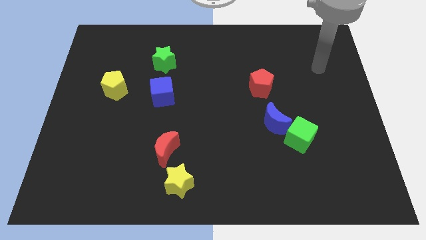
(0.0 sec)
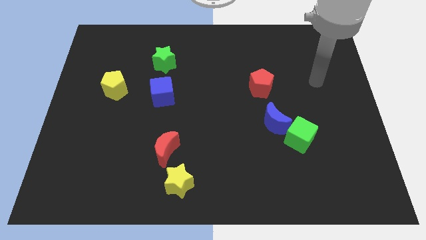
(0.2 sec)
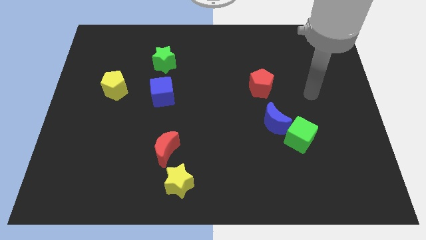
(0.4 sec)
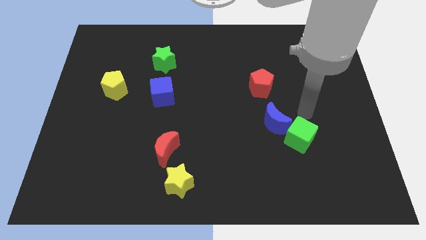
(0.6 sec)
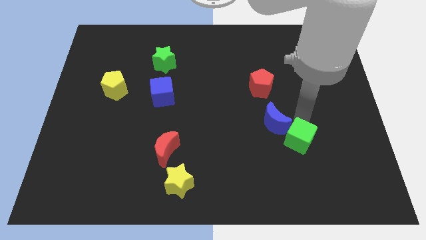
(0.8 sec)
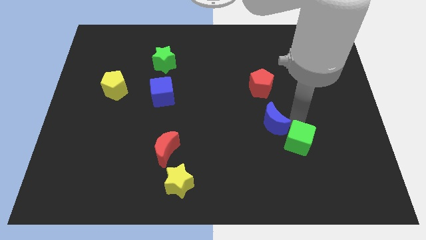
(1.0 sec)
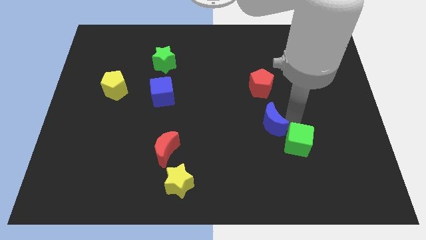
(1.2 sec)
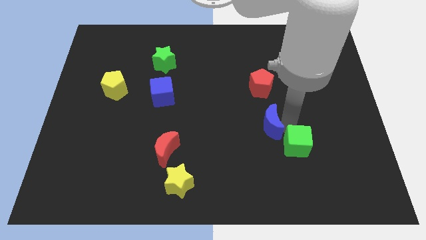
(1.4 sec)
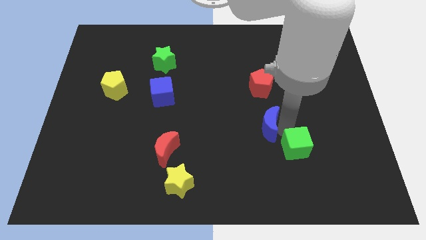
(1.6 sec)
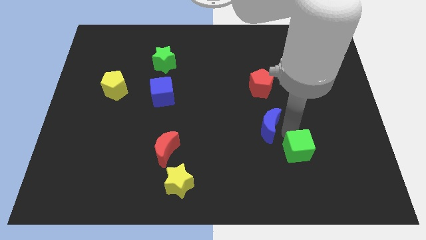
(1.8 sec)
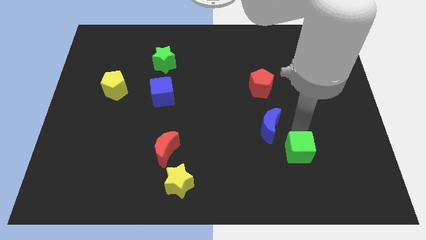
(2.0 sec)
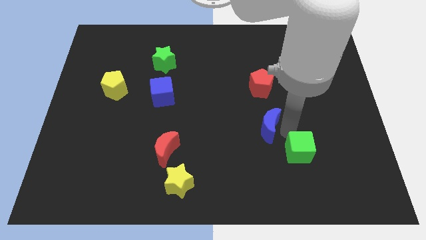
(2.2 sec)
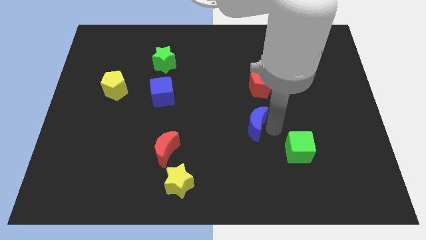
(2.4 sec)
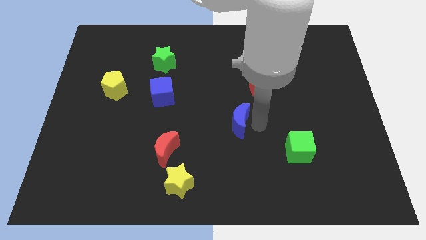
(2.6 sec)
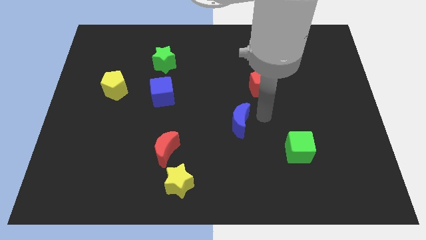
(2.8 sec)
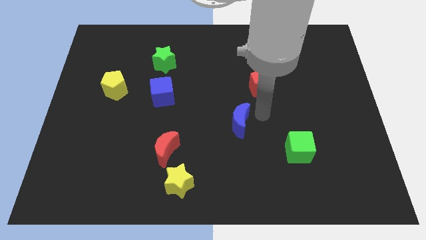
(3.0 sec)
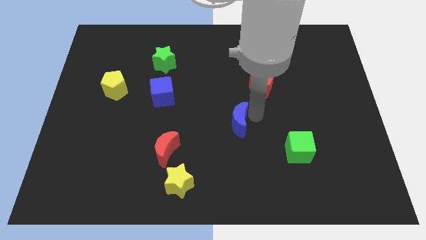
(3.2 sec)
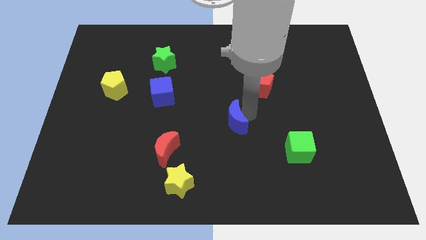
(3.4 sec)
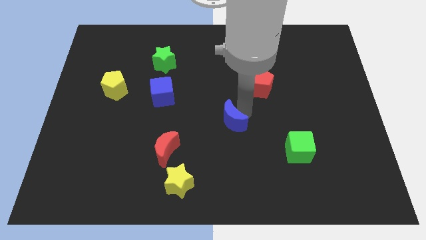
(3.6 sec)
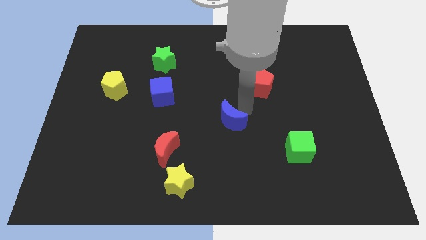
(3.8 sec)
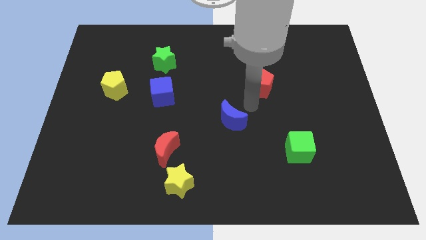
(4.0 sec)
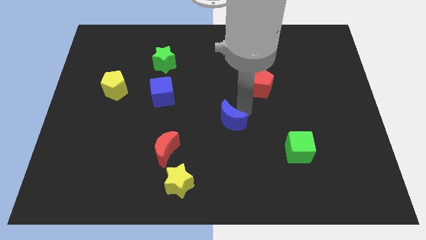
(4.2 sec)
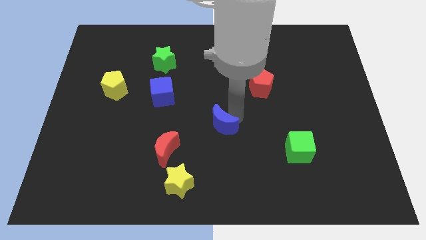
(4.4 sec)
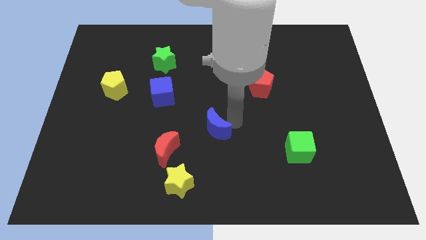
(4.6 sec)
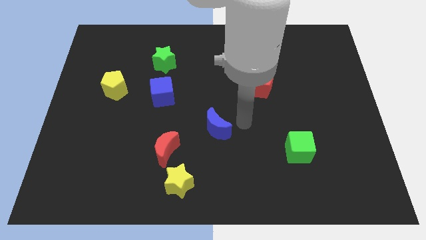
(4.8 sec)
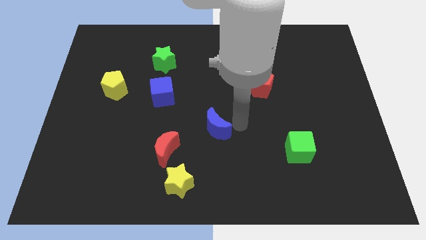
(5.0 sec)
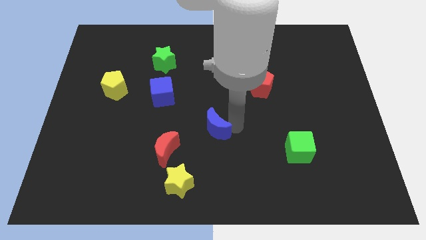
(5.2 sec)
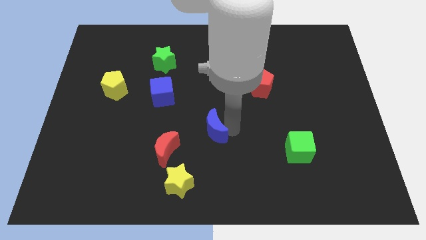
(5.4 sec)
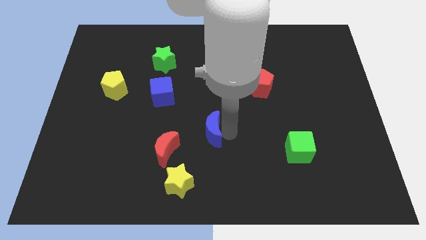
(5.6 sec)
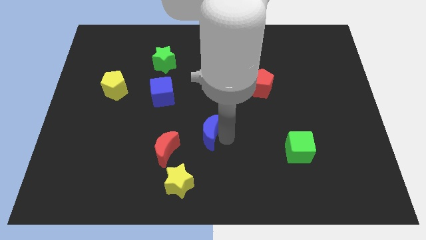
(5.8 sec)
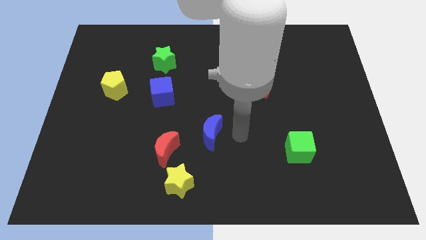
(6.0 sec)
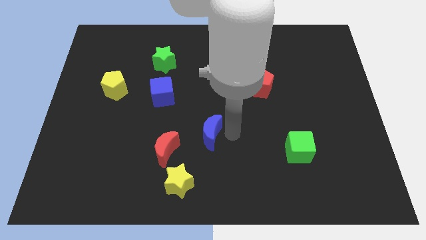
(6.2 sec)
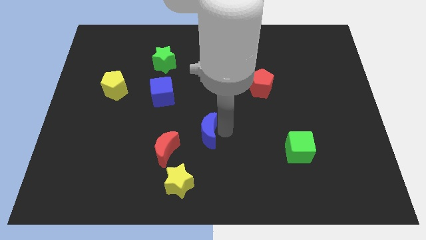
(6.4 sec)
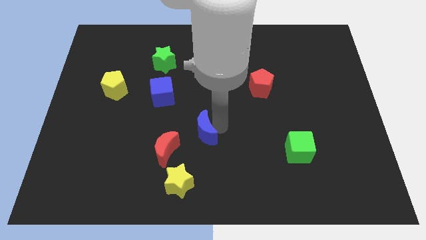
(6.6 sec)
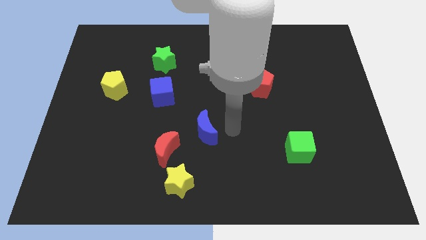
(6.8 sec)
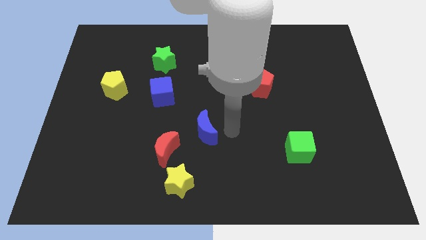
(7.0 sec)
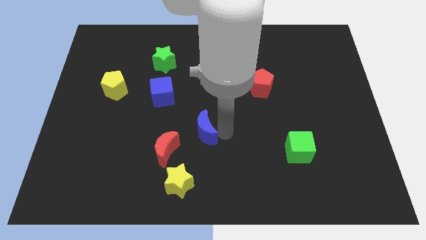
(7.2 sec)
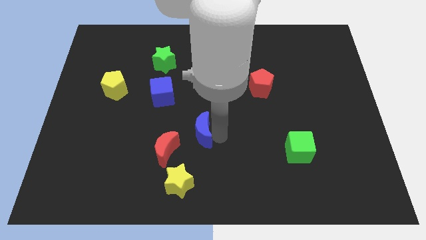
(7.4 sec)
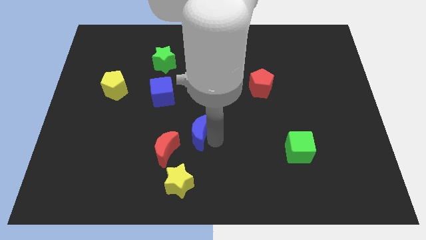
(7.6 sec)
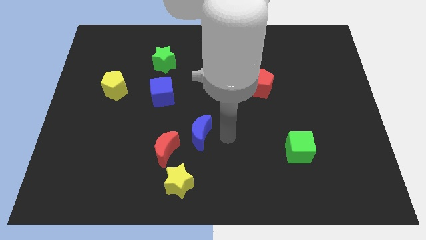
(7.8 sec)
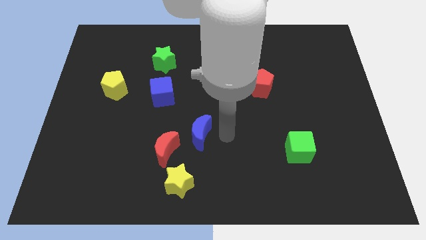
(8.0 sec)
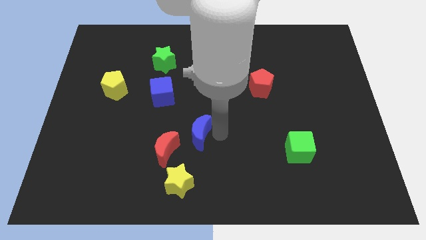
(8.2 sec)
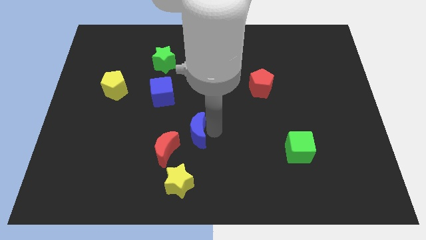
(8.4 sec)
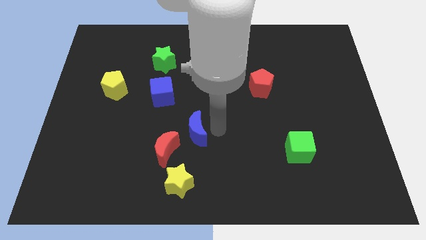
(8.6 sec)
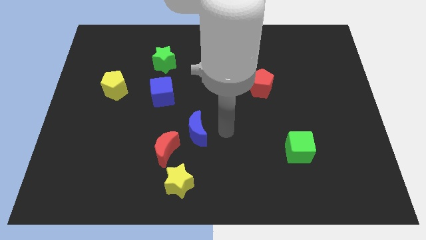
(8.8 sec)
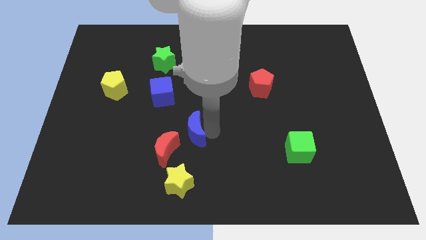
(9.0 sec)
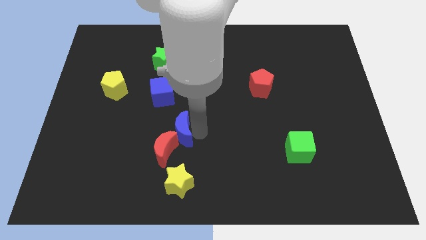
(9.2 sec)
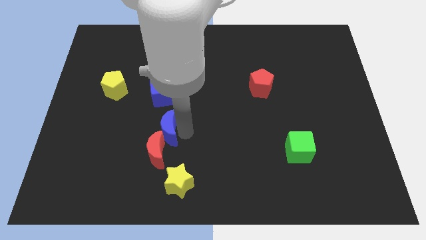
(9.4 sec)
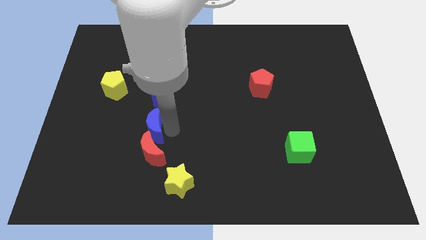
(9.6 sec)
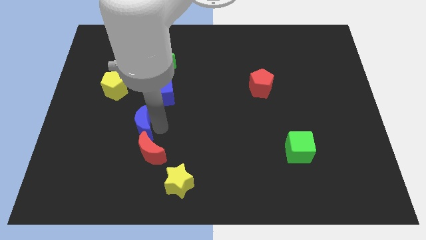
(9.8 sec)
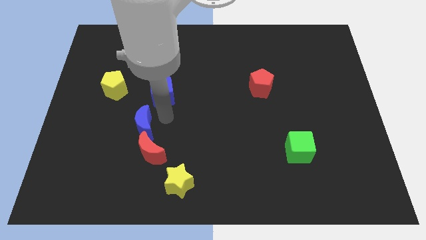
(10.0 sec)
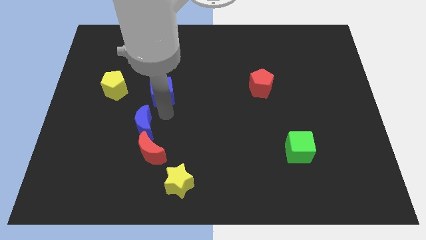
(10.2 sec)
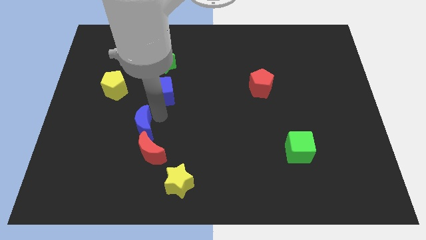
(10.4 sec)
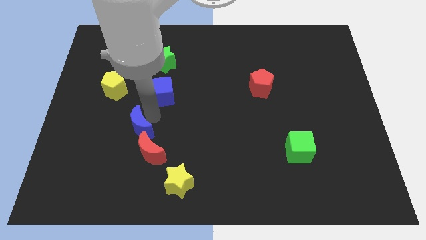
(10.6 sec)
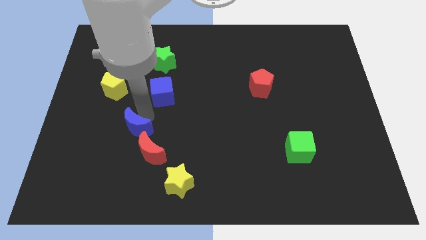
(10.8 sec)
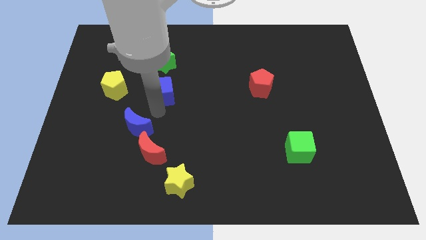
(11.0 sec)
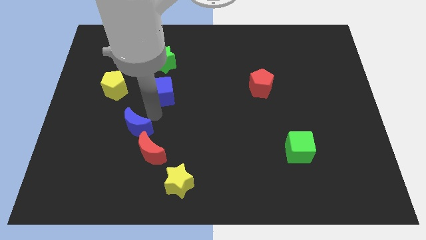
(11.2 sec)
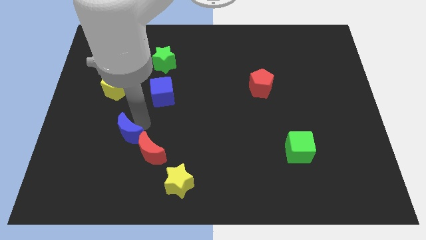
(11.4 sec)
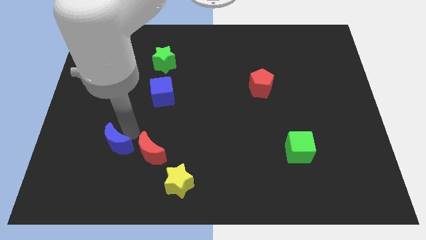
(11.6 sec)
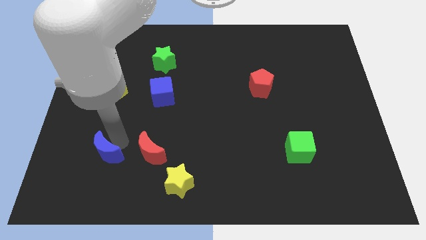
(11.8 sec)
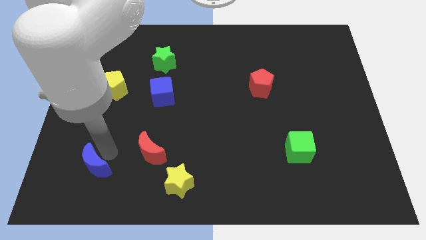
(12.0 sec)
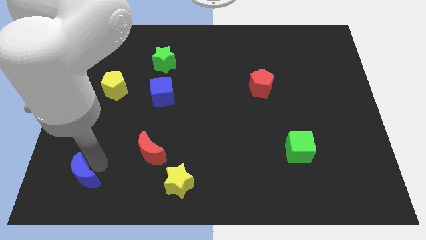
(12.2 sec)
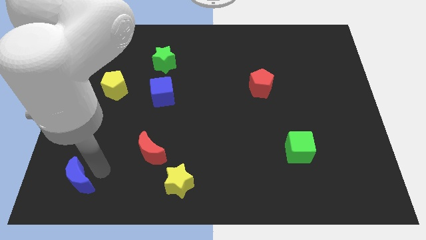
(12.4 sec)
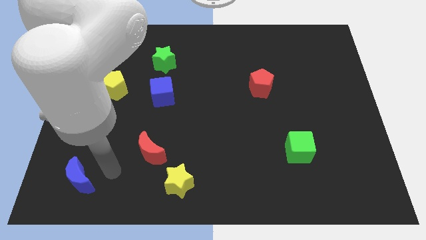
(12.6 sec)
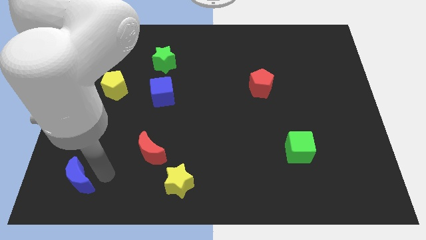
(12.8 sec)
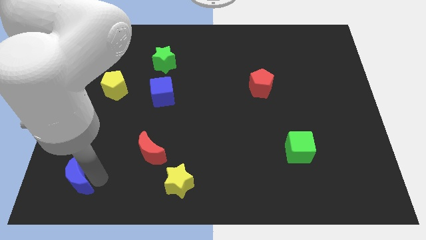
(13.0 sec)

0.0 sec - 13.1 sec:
put the blue moon to the bottom left of the board

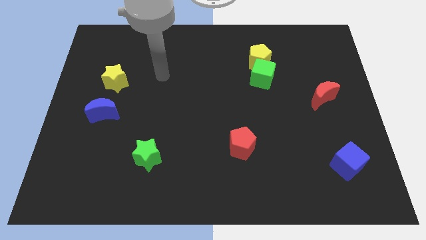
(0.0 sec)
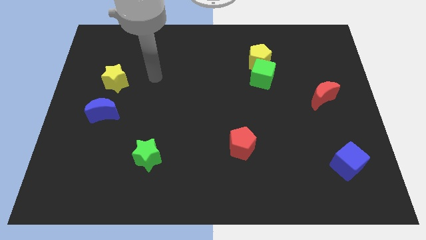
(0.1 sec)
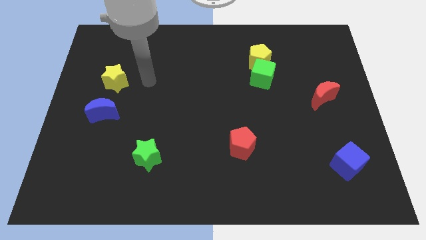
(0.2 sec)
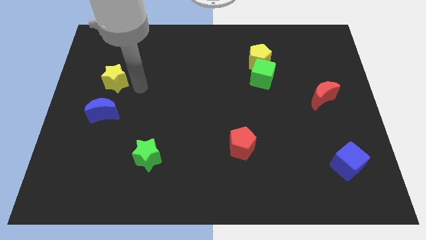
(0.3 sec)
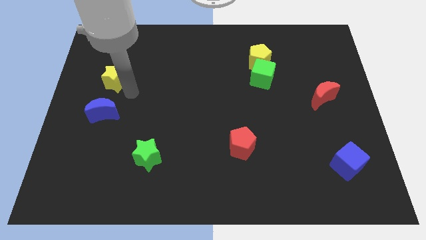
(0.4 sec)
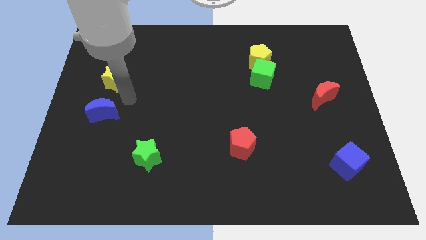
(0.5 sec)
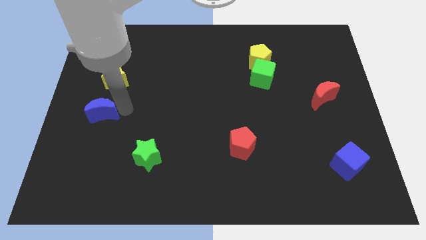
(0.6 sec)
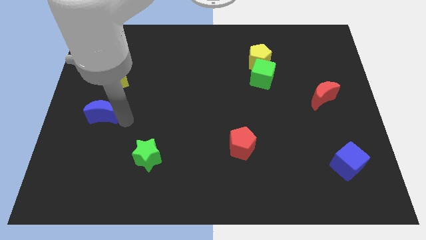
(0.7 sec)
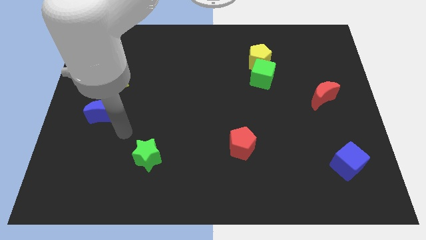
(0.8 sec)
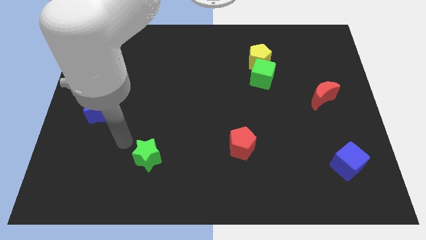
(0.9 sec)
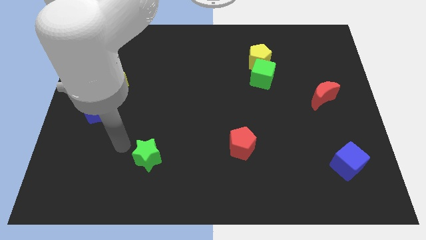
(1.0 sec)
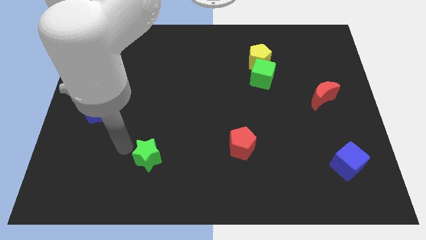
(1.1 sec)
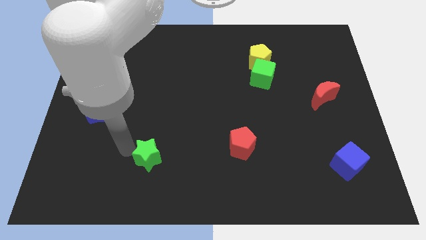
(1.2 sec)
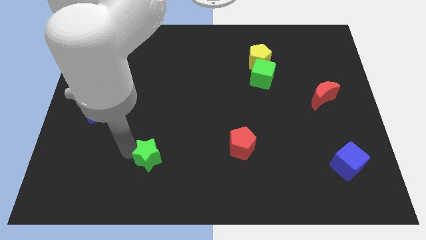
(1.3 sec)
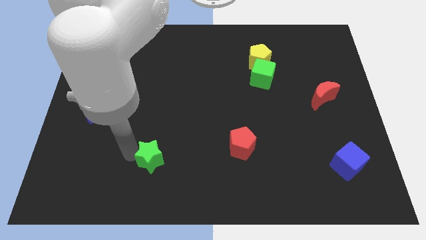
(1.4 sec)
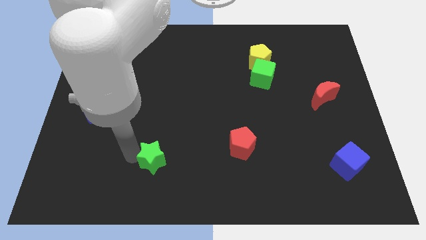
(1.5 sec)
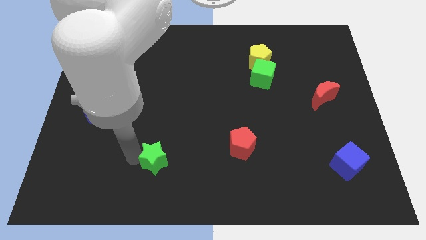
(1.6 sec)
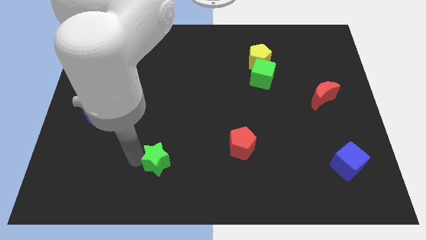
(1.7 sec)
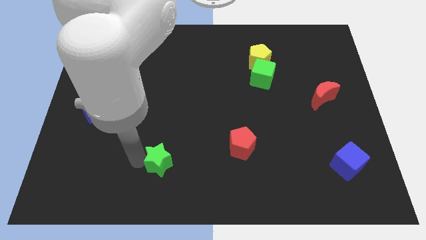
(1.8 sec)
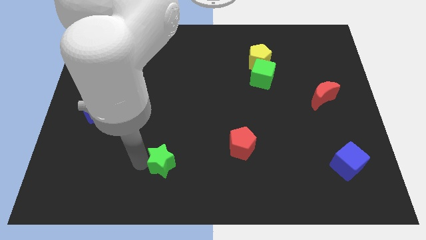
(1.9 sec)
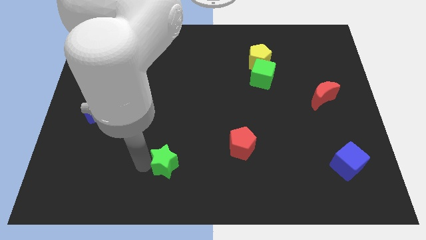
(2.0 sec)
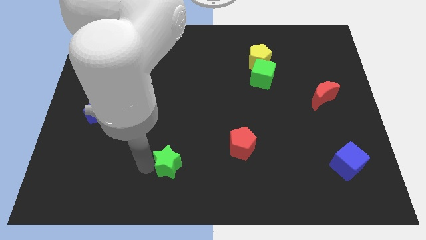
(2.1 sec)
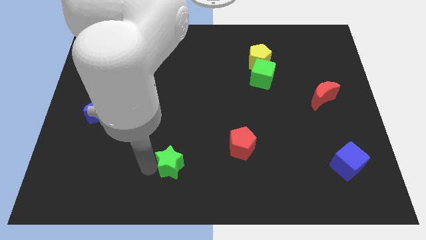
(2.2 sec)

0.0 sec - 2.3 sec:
push the green star to the bottom
